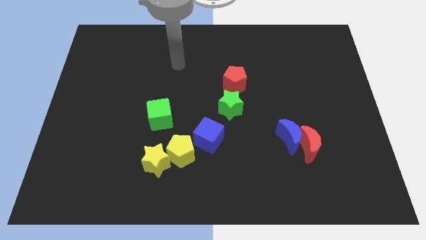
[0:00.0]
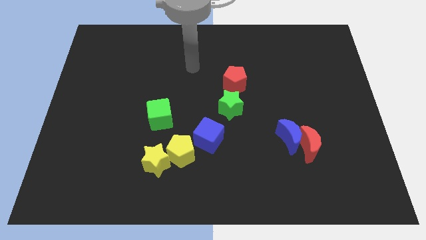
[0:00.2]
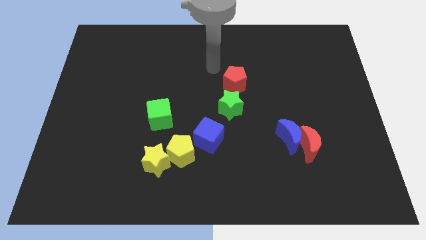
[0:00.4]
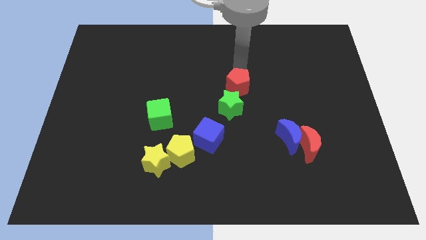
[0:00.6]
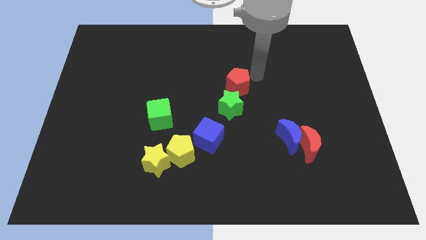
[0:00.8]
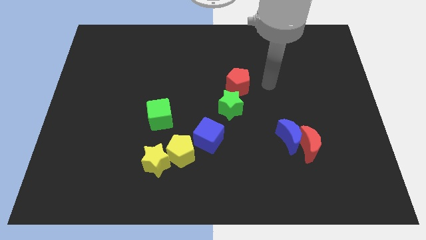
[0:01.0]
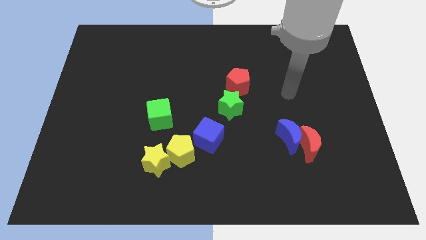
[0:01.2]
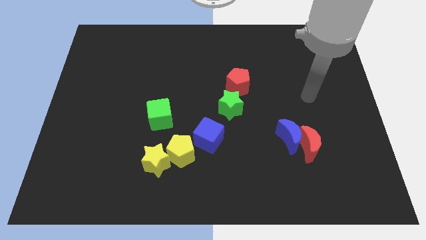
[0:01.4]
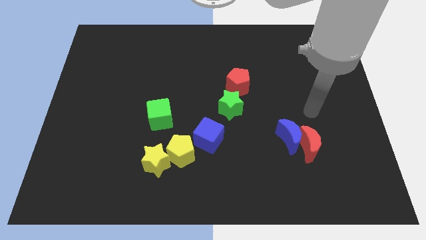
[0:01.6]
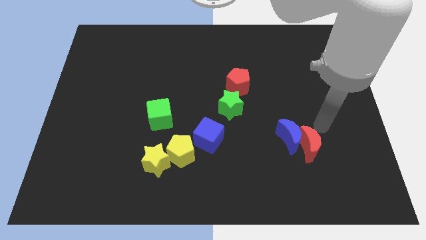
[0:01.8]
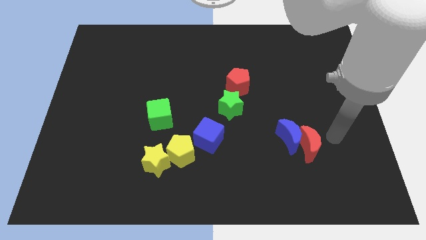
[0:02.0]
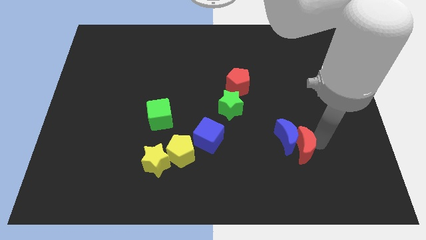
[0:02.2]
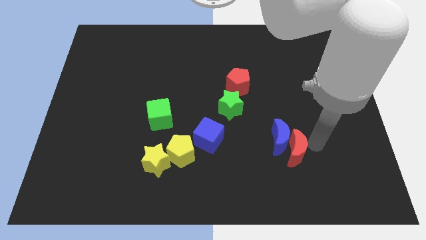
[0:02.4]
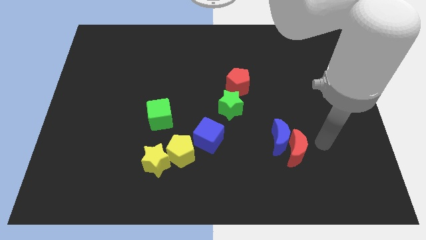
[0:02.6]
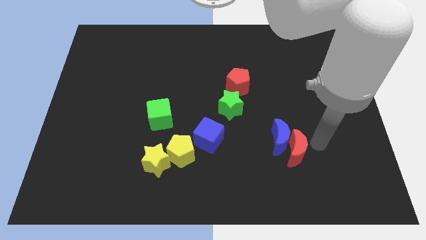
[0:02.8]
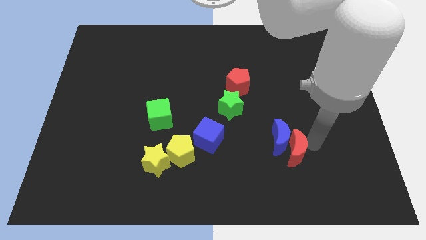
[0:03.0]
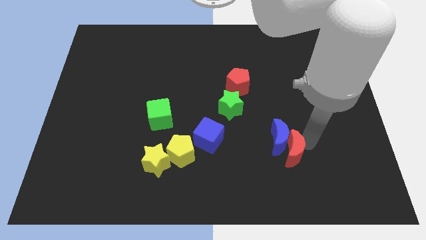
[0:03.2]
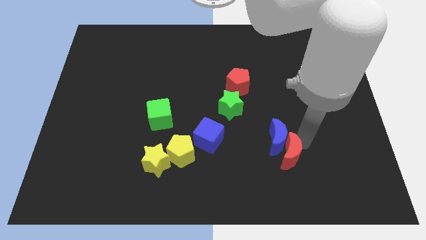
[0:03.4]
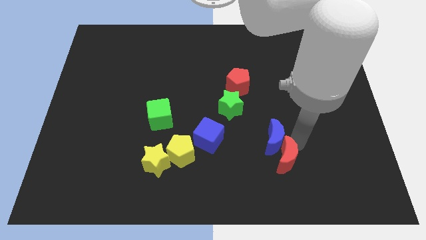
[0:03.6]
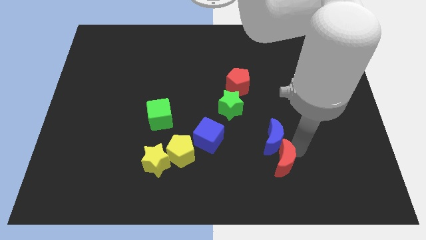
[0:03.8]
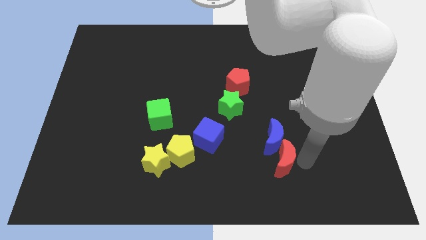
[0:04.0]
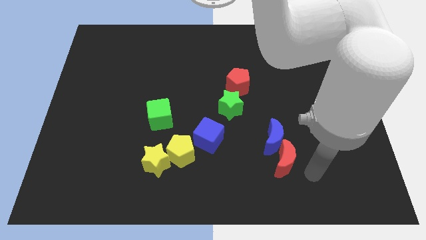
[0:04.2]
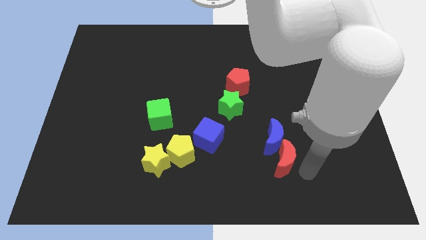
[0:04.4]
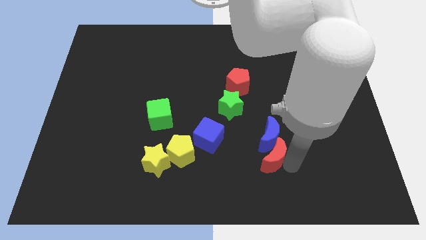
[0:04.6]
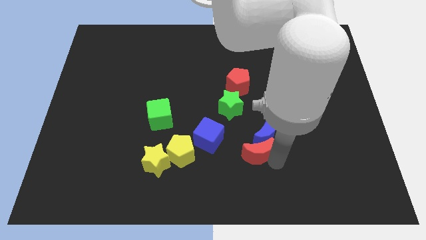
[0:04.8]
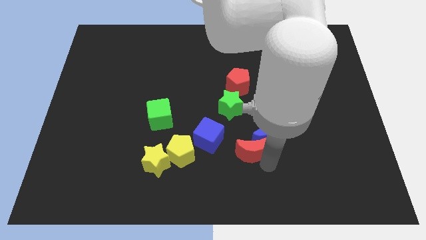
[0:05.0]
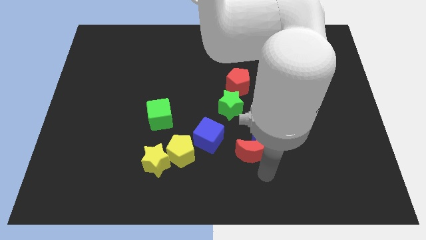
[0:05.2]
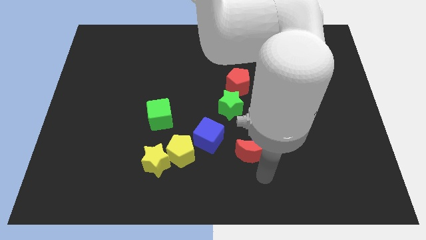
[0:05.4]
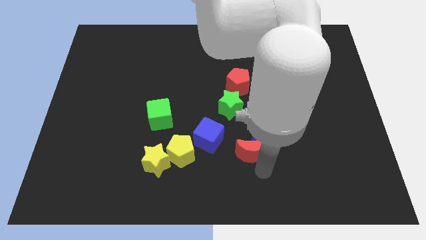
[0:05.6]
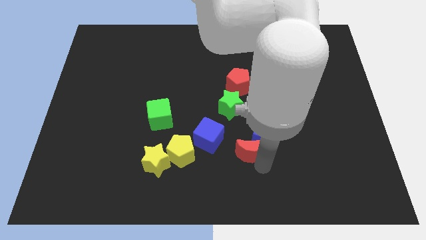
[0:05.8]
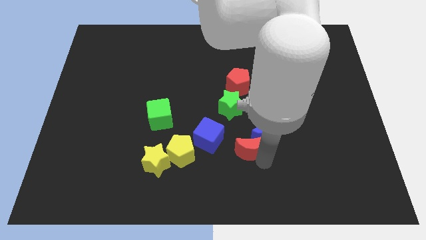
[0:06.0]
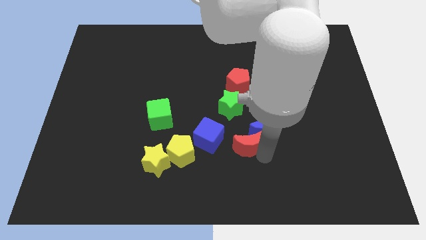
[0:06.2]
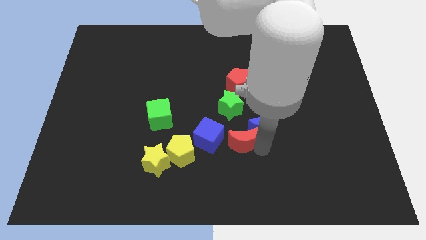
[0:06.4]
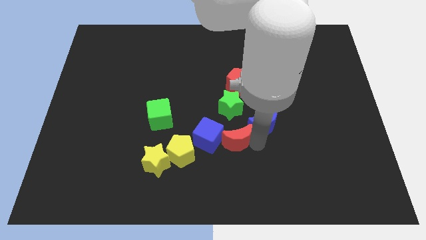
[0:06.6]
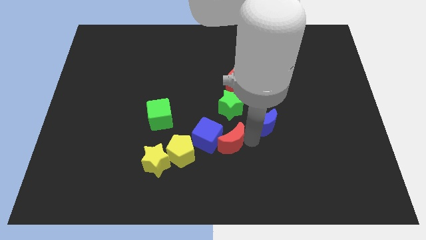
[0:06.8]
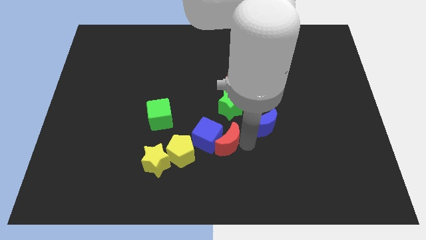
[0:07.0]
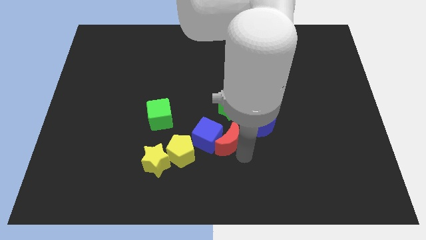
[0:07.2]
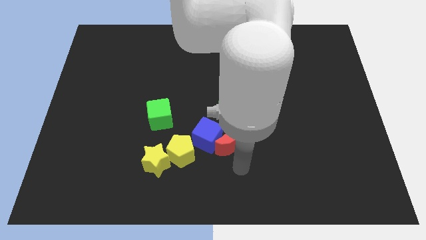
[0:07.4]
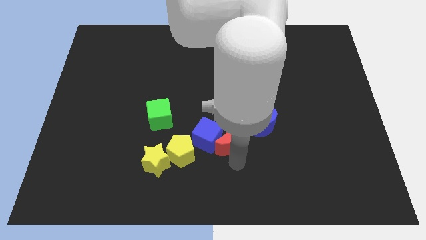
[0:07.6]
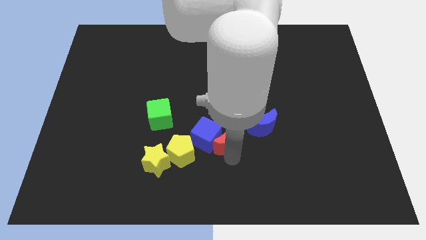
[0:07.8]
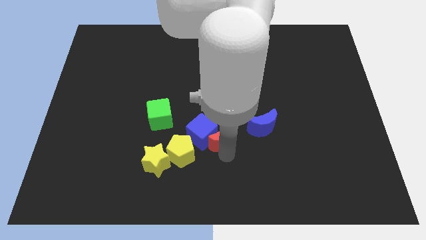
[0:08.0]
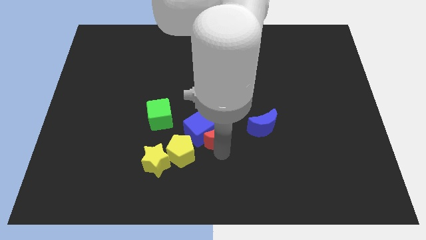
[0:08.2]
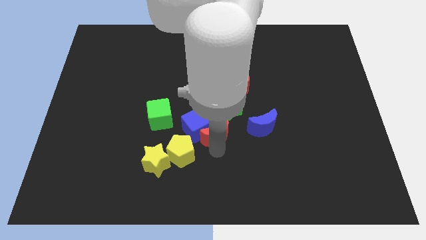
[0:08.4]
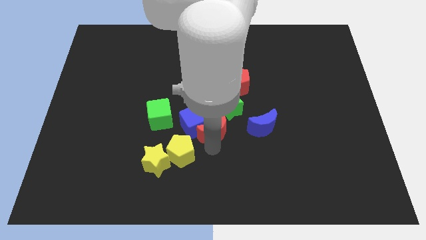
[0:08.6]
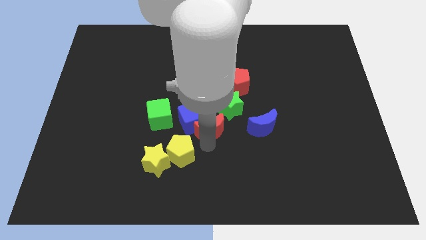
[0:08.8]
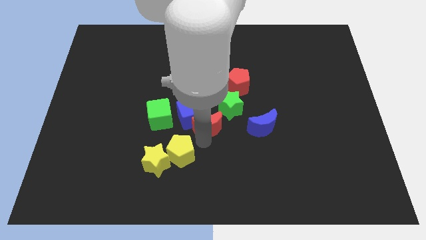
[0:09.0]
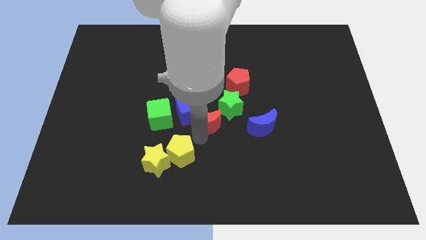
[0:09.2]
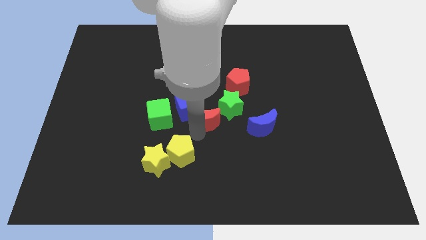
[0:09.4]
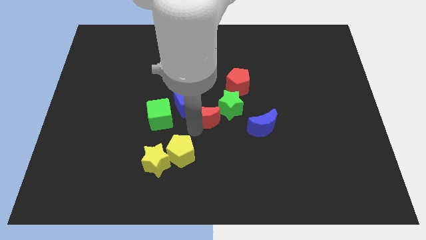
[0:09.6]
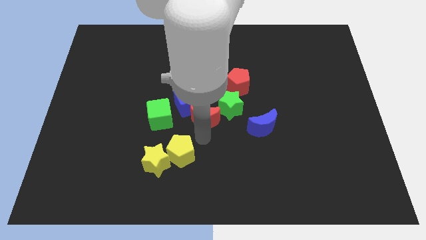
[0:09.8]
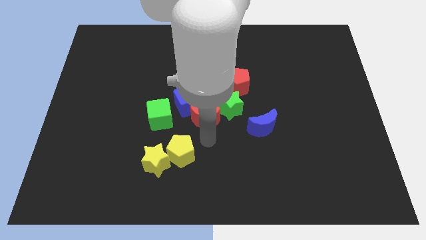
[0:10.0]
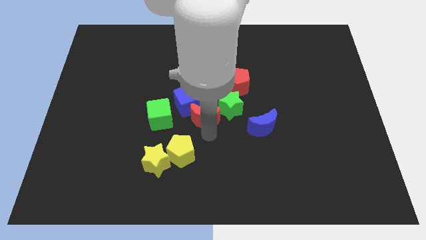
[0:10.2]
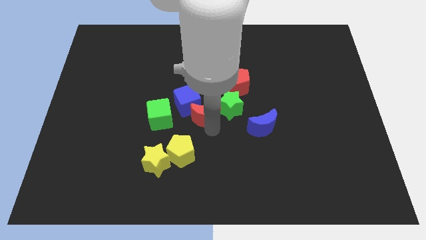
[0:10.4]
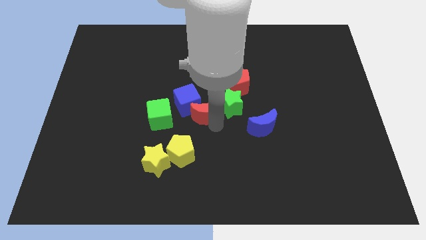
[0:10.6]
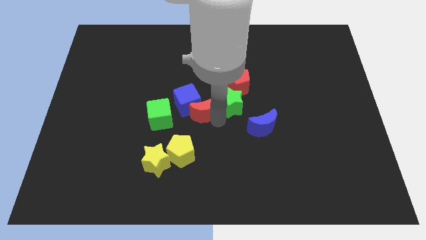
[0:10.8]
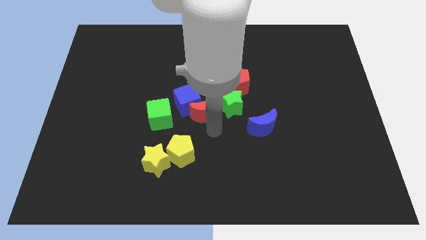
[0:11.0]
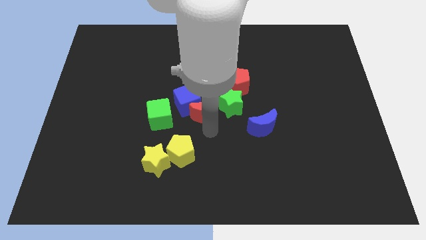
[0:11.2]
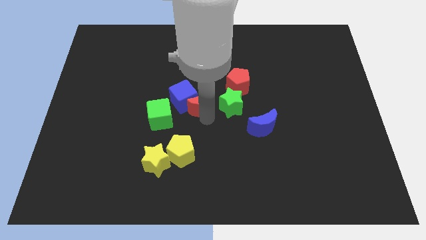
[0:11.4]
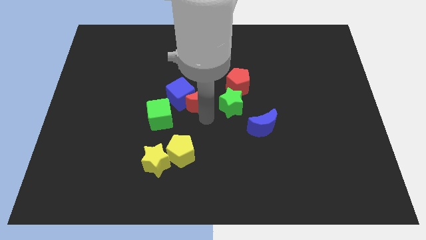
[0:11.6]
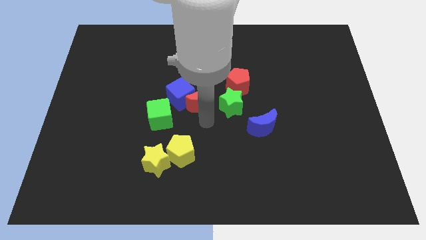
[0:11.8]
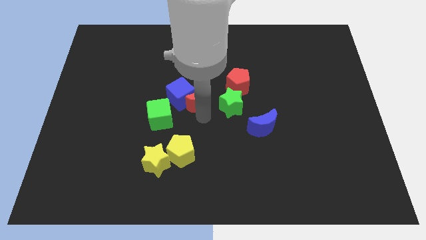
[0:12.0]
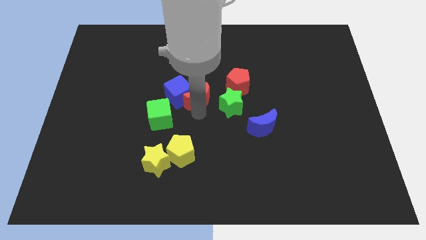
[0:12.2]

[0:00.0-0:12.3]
push the red moon to the left of the red pentagon

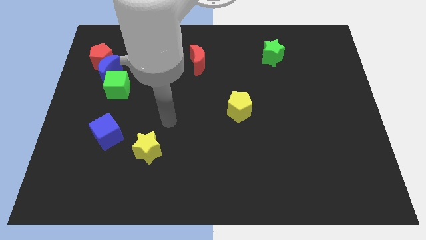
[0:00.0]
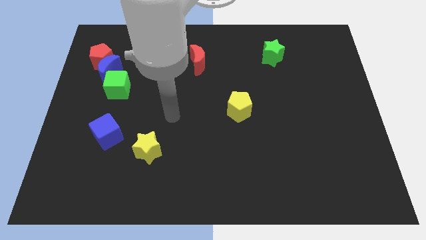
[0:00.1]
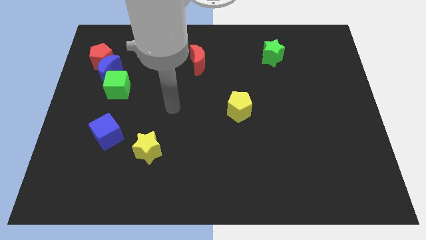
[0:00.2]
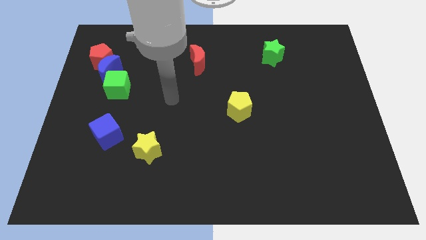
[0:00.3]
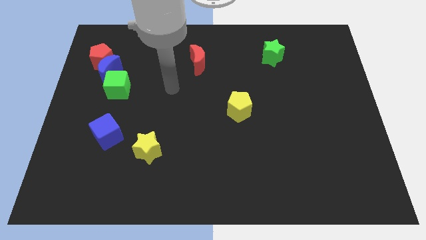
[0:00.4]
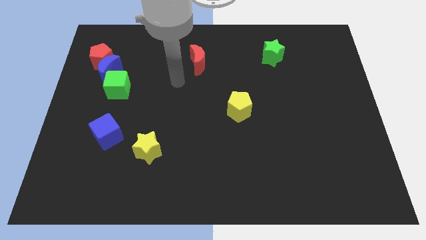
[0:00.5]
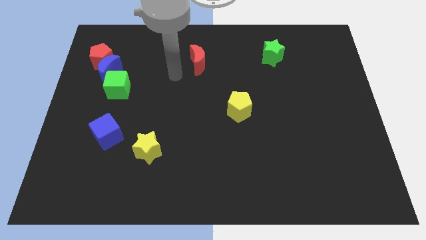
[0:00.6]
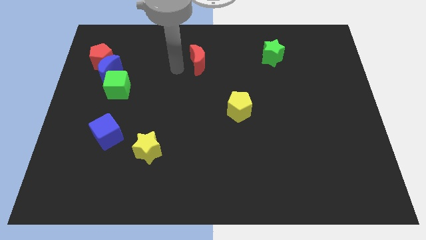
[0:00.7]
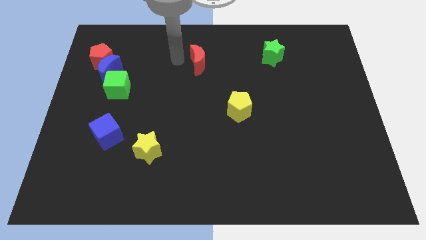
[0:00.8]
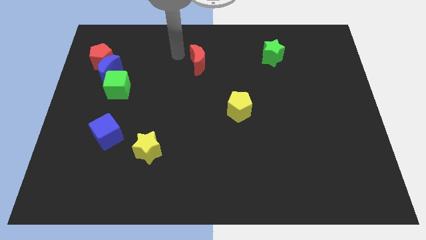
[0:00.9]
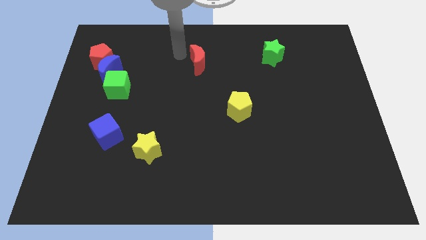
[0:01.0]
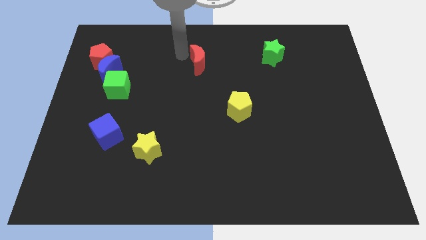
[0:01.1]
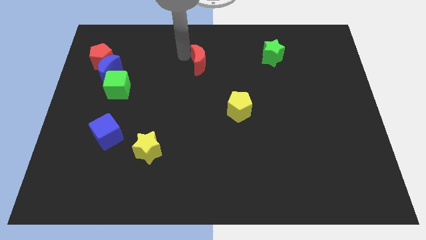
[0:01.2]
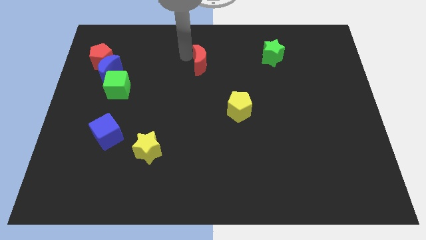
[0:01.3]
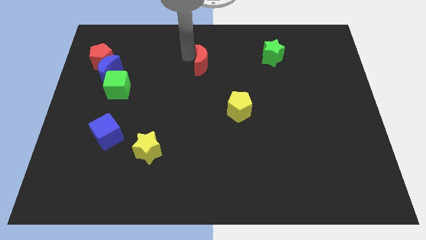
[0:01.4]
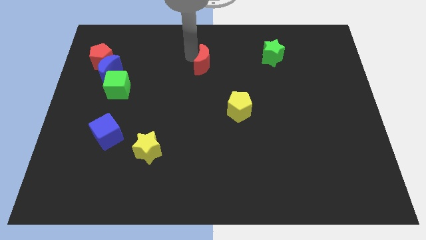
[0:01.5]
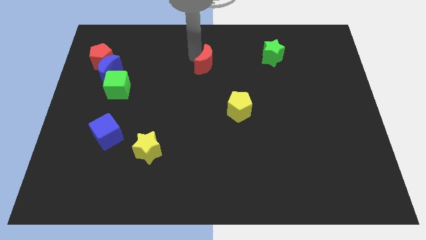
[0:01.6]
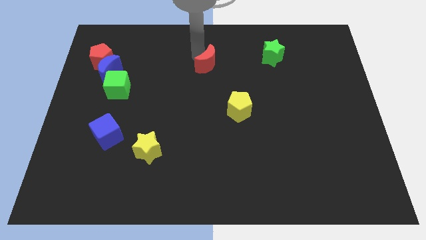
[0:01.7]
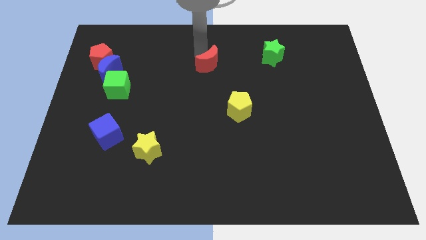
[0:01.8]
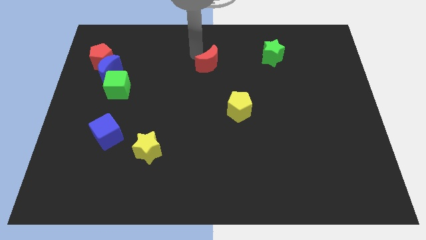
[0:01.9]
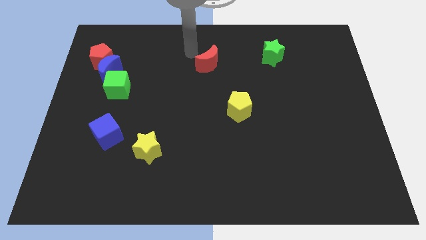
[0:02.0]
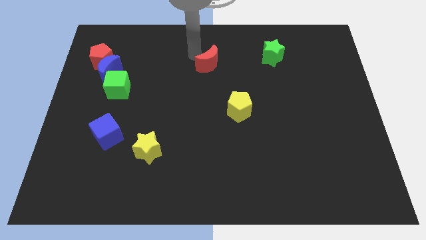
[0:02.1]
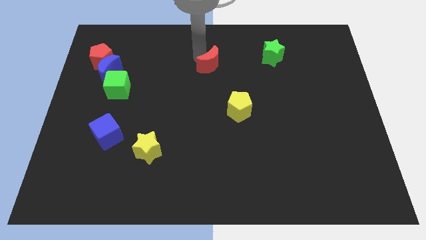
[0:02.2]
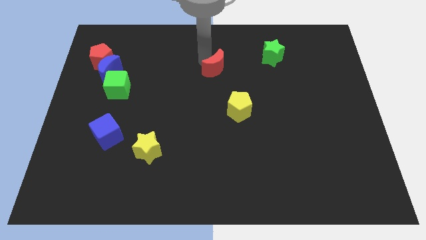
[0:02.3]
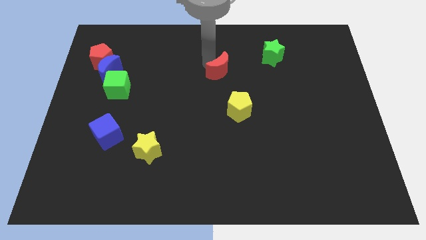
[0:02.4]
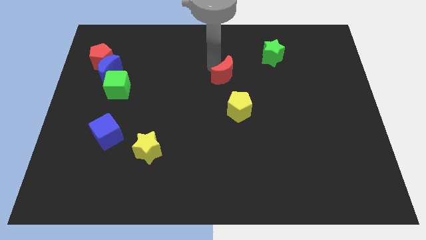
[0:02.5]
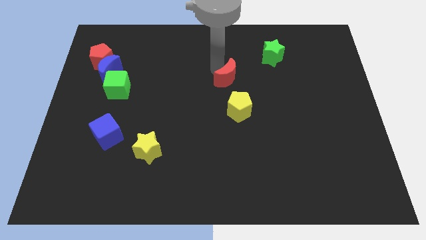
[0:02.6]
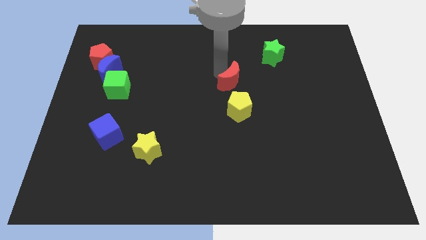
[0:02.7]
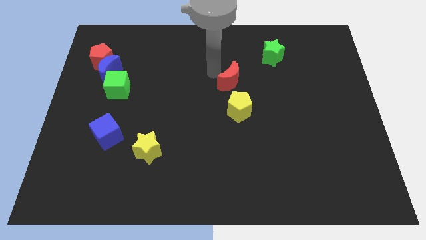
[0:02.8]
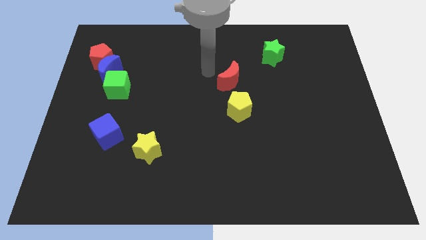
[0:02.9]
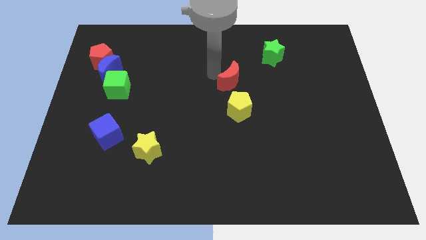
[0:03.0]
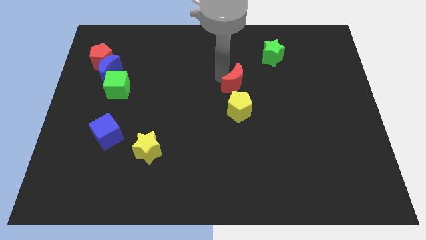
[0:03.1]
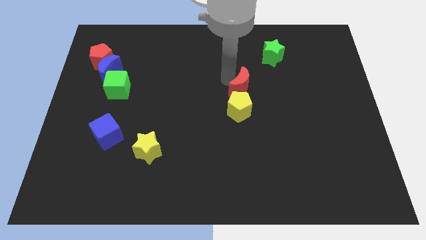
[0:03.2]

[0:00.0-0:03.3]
put the red moon to the top right side of the yellow pentagon
